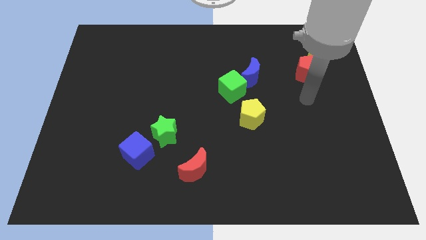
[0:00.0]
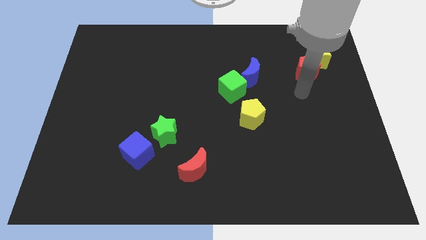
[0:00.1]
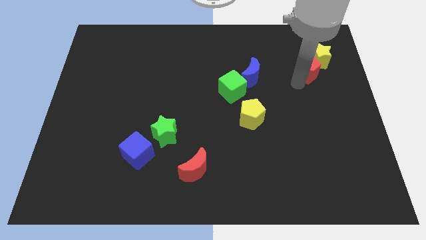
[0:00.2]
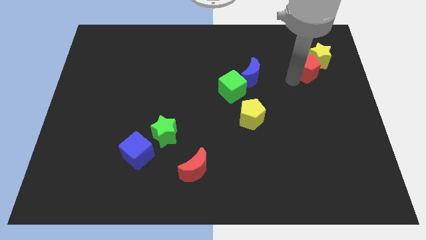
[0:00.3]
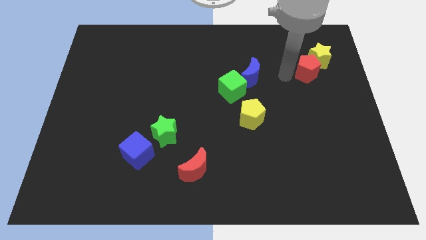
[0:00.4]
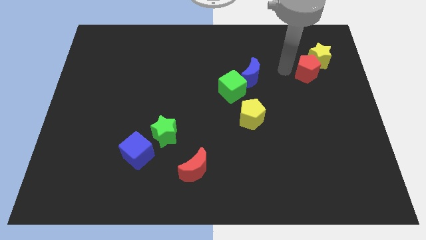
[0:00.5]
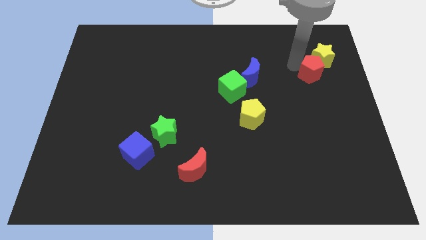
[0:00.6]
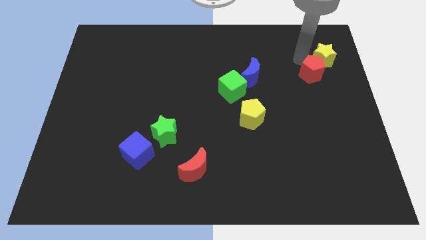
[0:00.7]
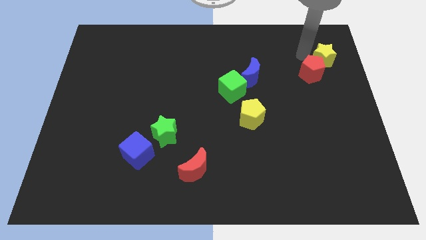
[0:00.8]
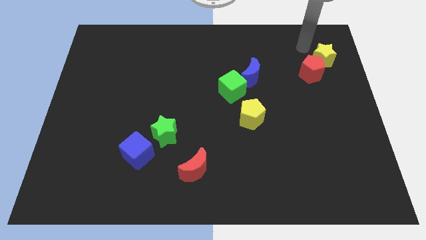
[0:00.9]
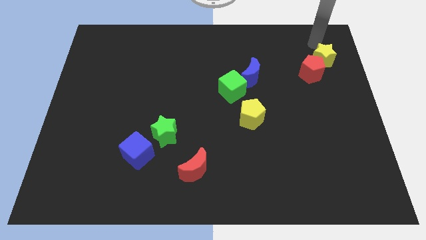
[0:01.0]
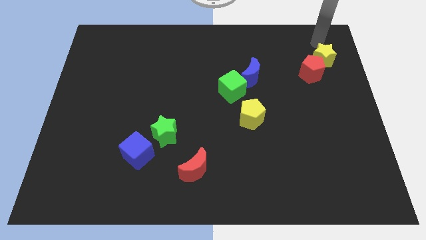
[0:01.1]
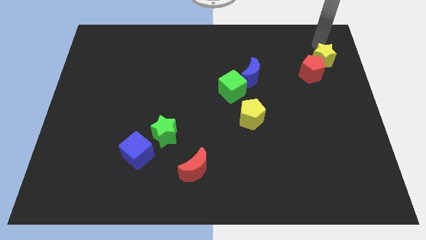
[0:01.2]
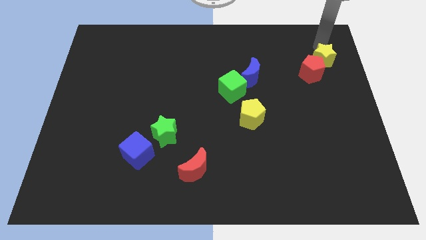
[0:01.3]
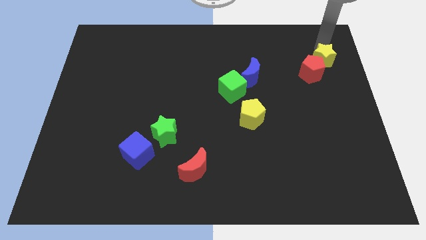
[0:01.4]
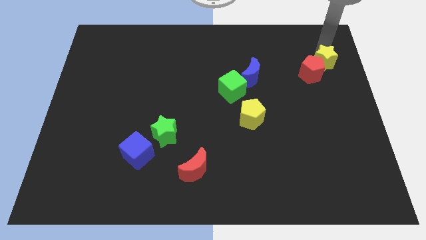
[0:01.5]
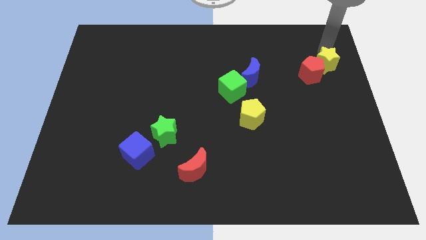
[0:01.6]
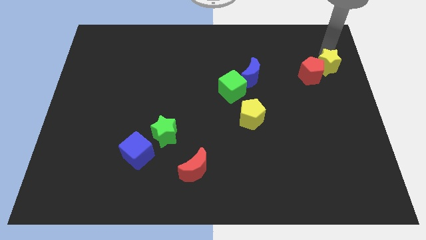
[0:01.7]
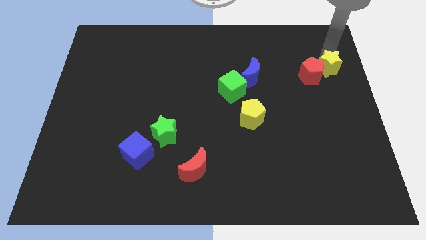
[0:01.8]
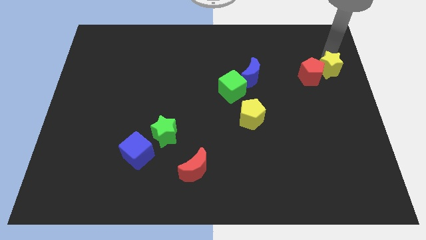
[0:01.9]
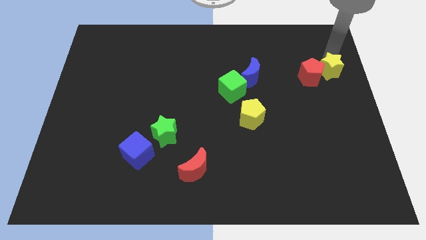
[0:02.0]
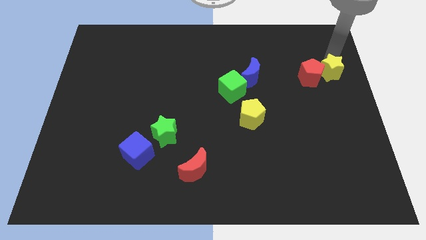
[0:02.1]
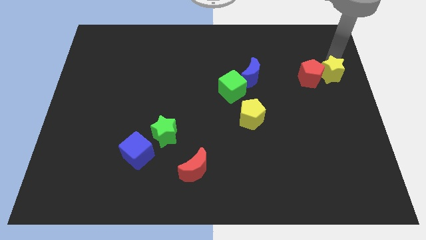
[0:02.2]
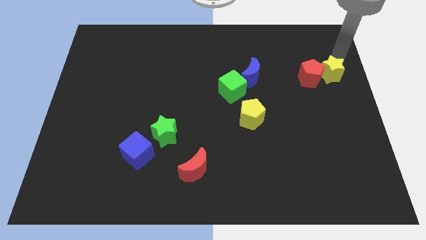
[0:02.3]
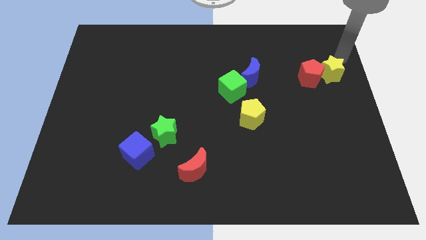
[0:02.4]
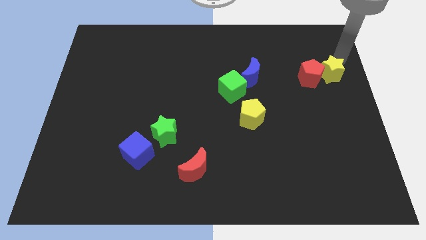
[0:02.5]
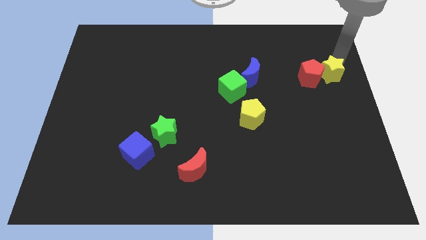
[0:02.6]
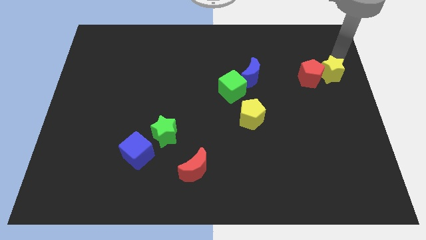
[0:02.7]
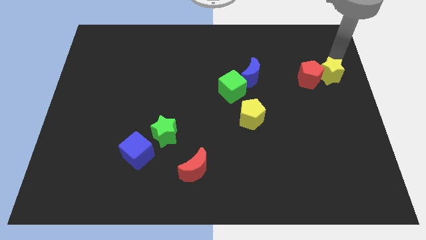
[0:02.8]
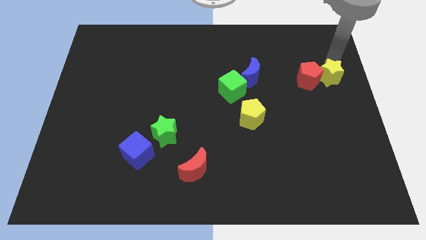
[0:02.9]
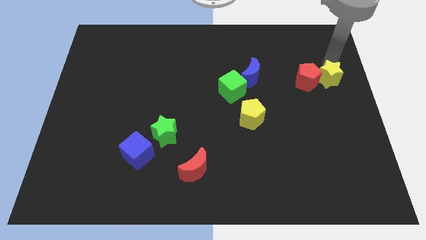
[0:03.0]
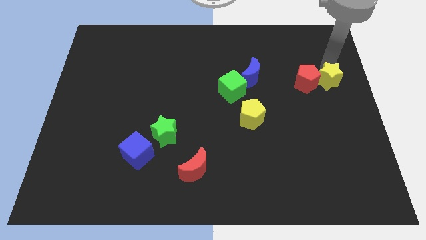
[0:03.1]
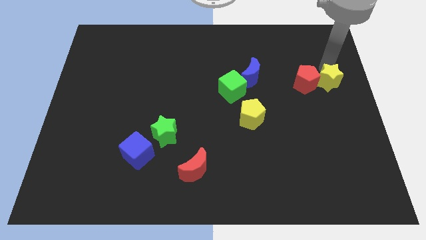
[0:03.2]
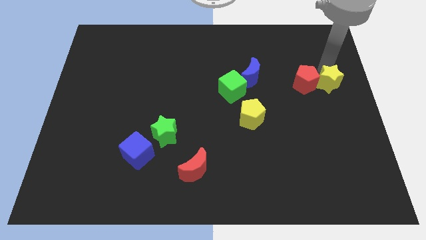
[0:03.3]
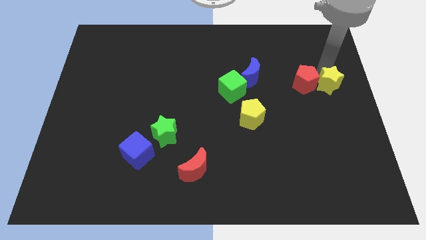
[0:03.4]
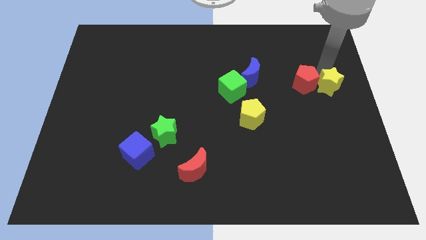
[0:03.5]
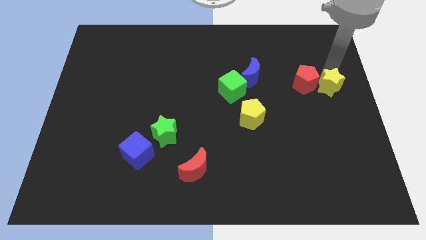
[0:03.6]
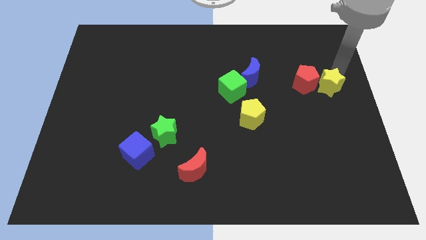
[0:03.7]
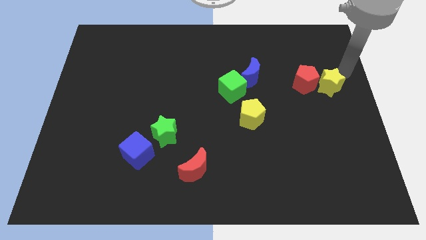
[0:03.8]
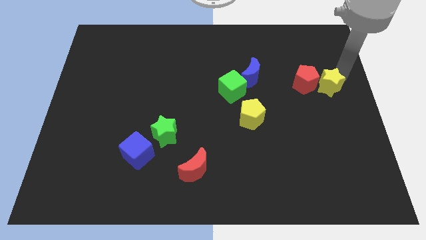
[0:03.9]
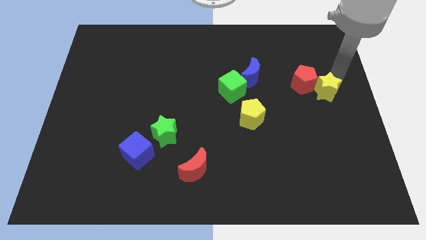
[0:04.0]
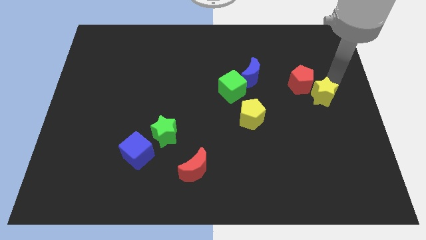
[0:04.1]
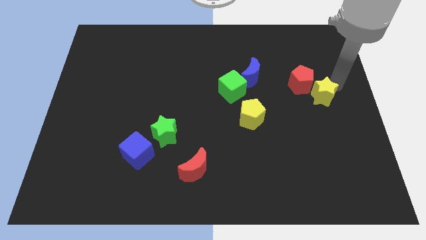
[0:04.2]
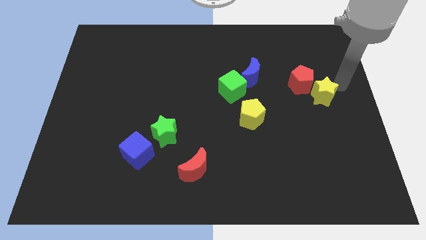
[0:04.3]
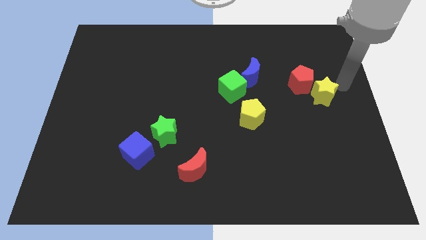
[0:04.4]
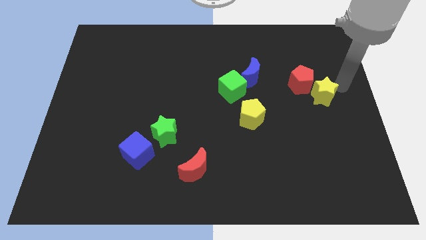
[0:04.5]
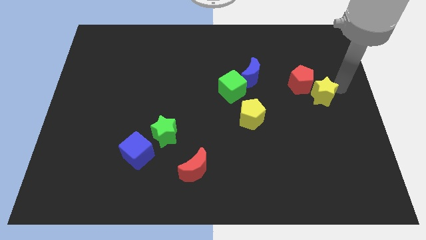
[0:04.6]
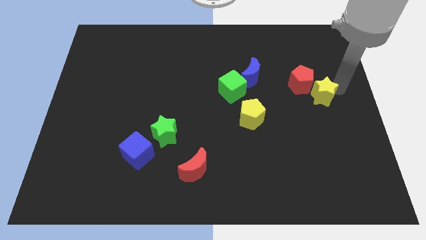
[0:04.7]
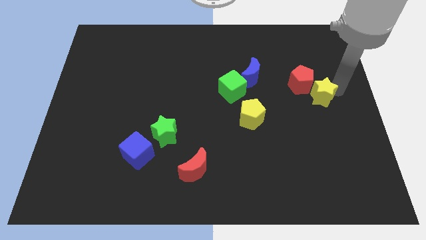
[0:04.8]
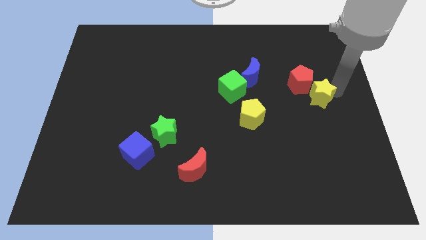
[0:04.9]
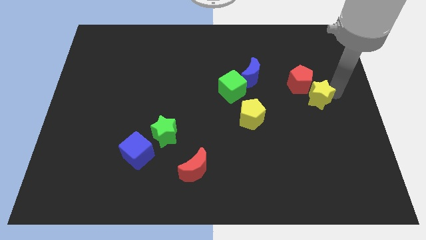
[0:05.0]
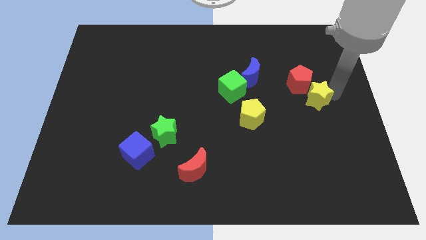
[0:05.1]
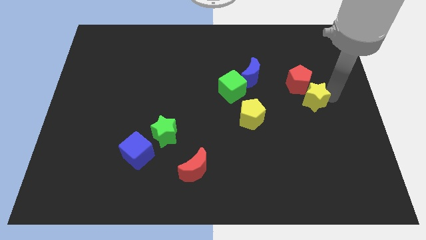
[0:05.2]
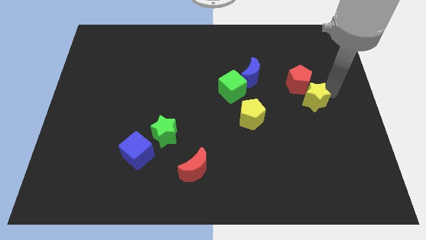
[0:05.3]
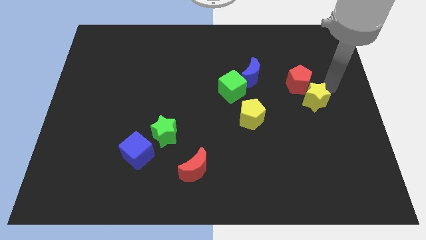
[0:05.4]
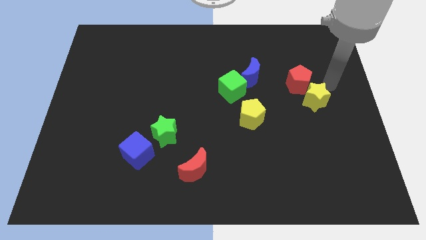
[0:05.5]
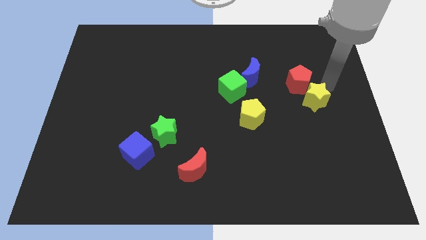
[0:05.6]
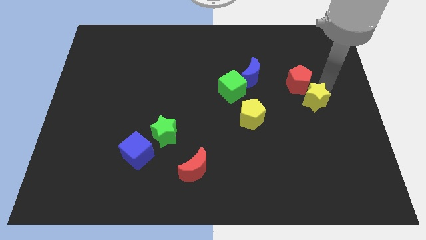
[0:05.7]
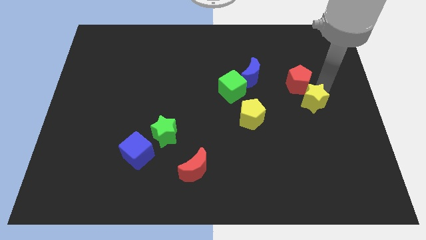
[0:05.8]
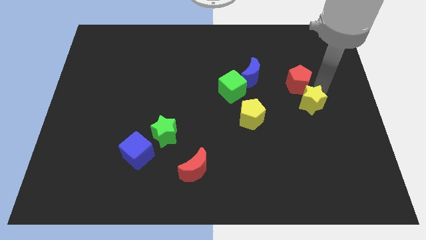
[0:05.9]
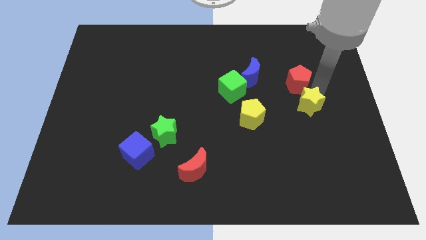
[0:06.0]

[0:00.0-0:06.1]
push the yellow star right of the yellow pentagon

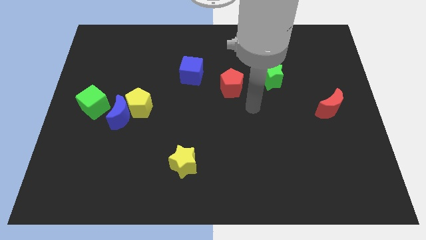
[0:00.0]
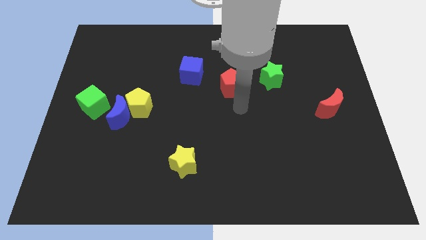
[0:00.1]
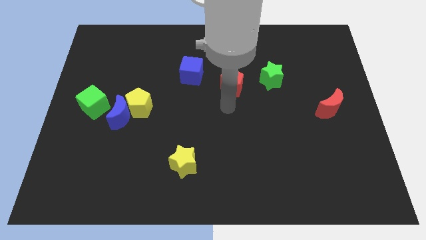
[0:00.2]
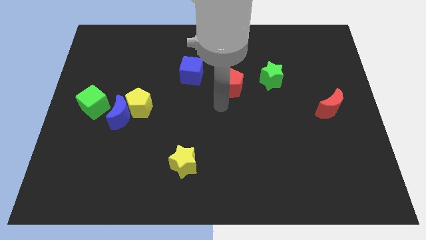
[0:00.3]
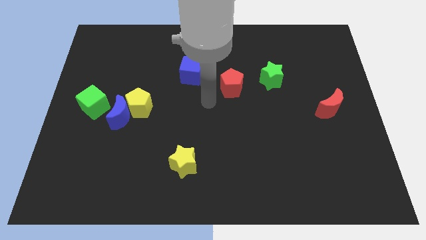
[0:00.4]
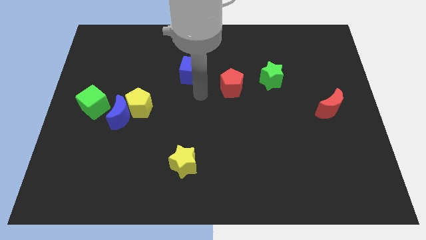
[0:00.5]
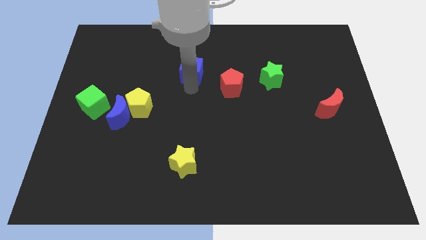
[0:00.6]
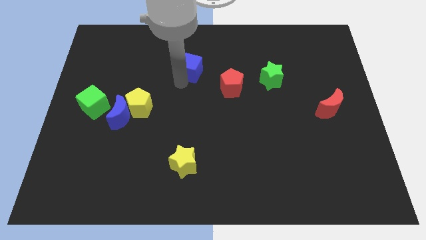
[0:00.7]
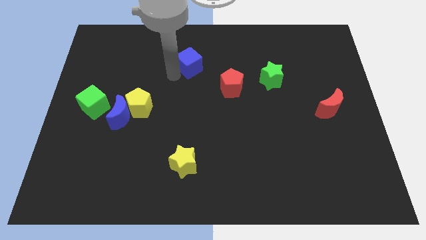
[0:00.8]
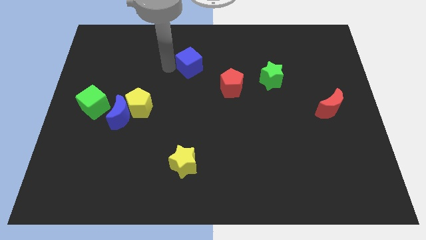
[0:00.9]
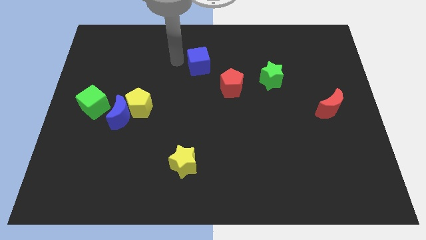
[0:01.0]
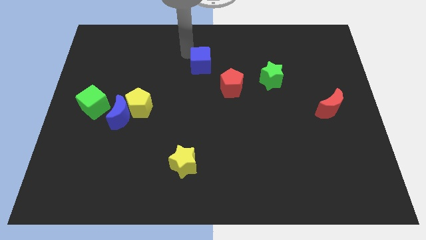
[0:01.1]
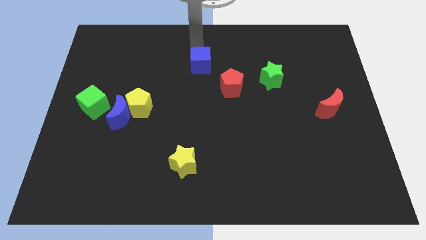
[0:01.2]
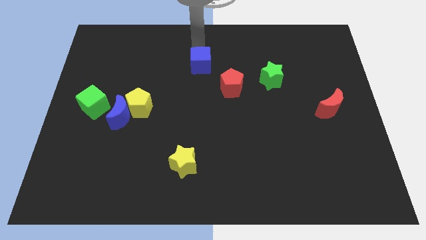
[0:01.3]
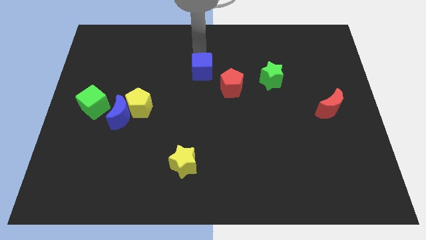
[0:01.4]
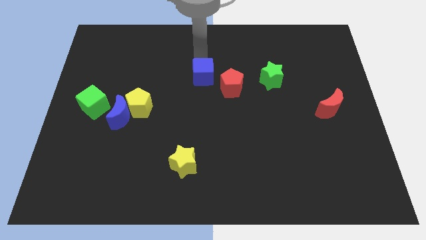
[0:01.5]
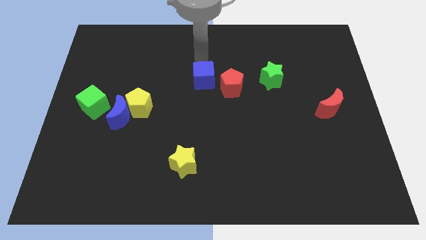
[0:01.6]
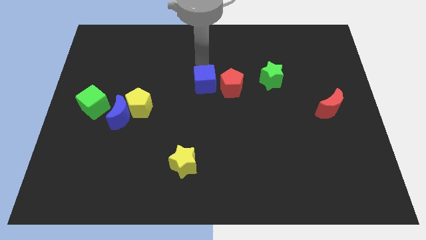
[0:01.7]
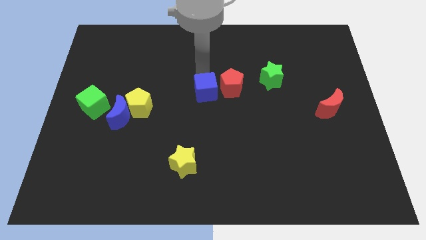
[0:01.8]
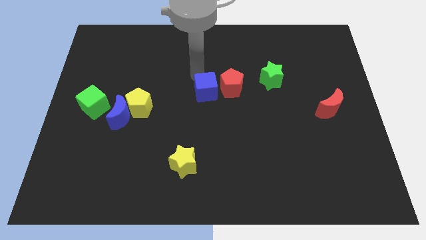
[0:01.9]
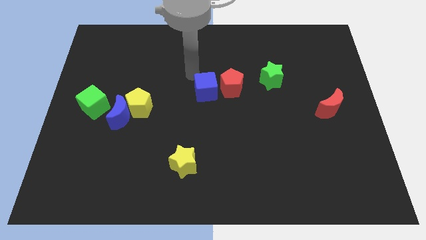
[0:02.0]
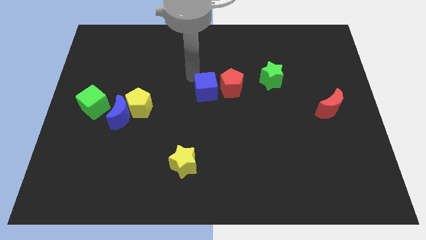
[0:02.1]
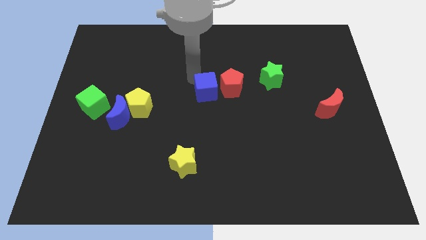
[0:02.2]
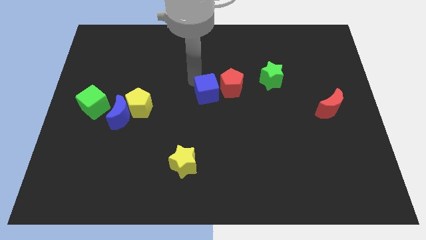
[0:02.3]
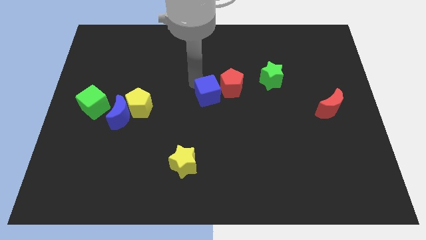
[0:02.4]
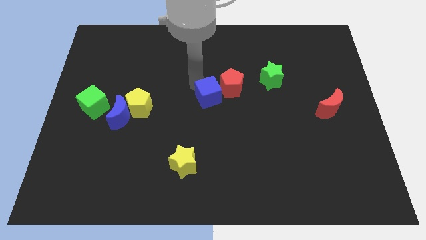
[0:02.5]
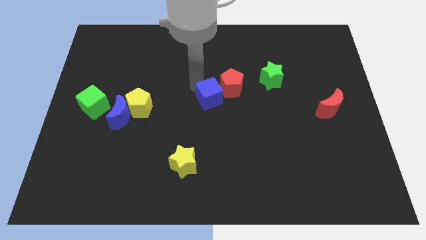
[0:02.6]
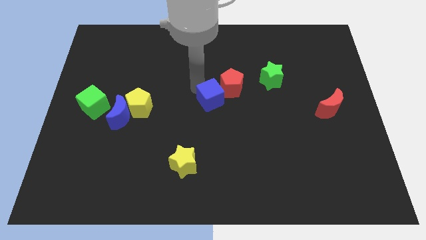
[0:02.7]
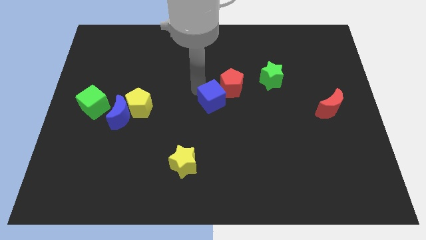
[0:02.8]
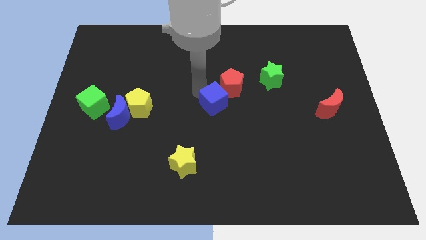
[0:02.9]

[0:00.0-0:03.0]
put the blue cube to the bottom of the red pentagon
